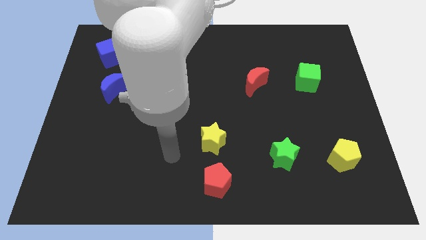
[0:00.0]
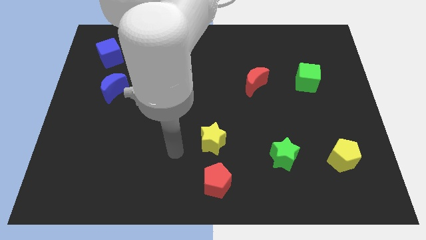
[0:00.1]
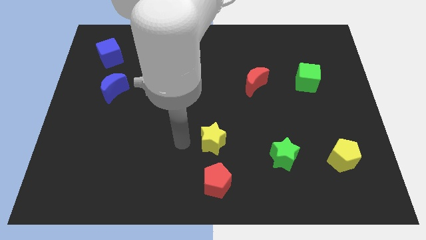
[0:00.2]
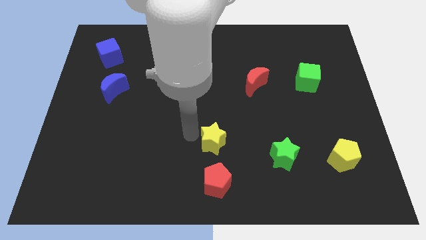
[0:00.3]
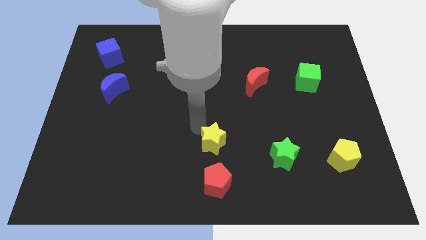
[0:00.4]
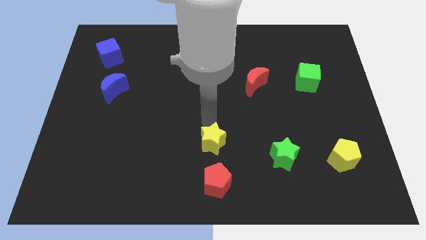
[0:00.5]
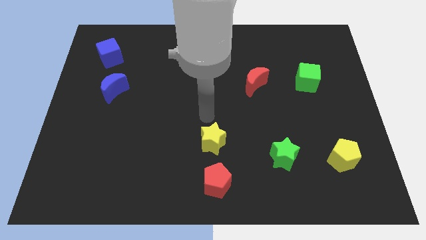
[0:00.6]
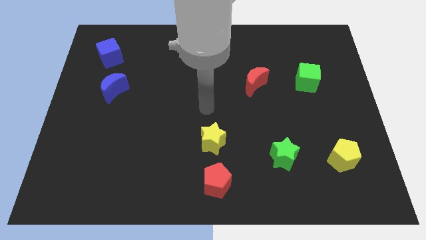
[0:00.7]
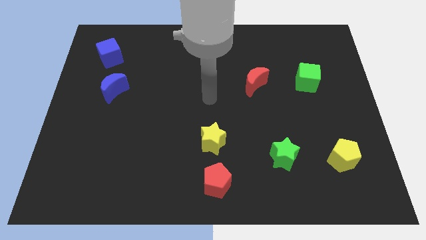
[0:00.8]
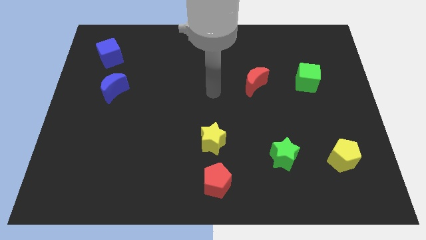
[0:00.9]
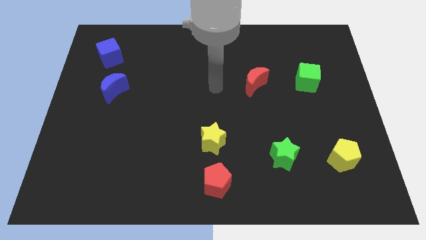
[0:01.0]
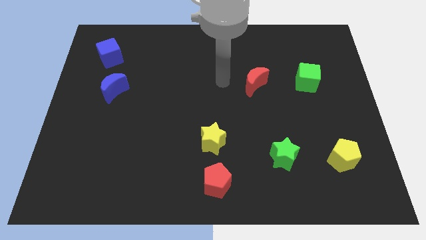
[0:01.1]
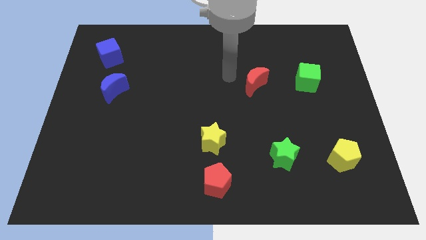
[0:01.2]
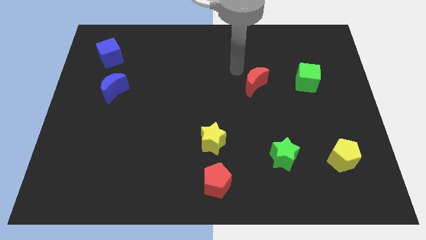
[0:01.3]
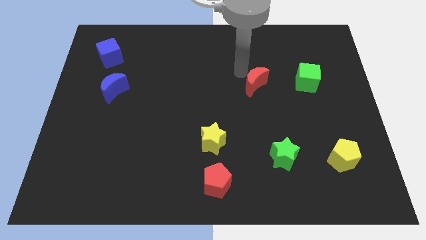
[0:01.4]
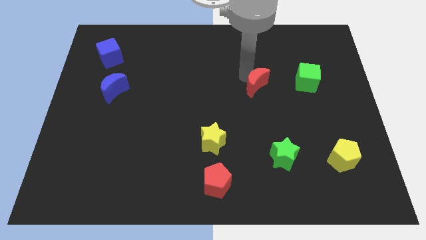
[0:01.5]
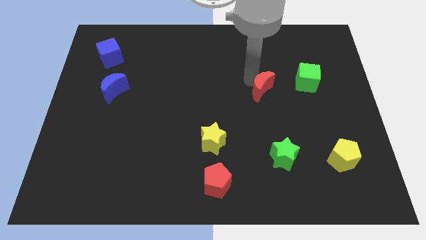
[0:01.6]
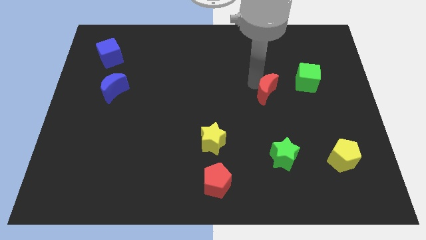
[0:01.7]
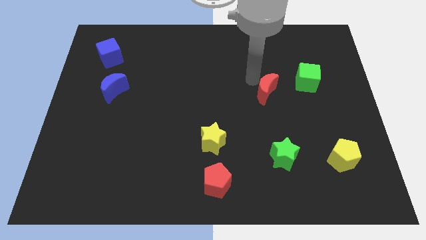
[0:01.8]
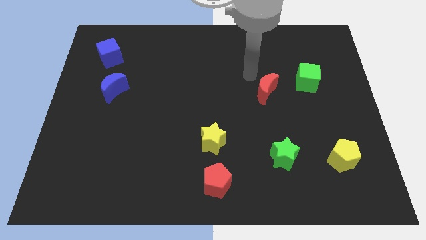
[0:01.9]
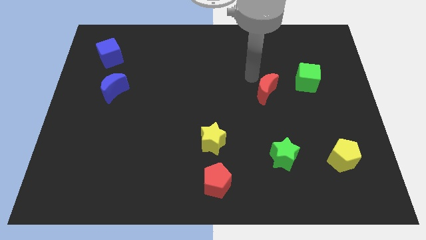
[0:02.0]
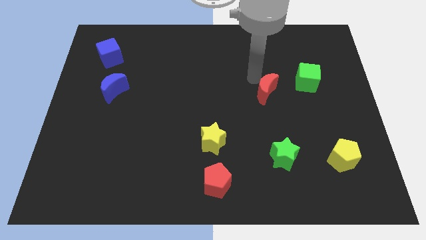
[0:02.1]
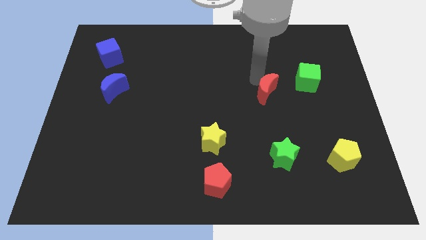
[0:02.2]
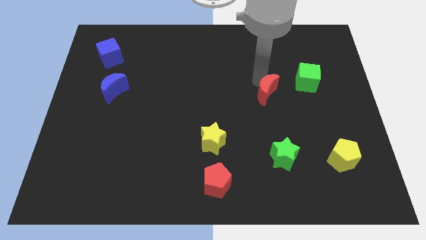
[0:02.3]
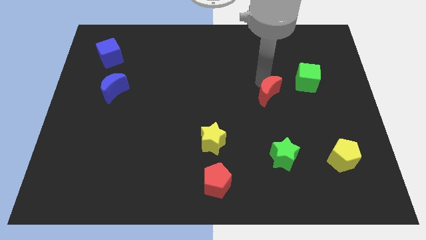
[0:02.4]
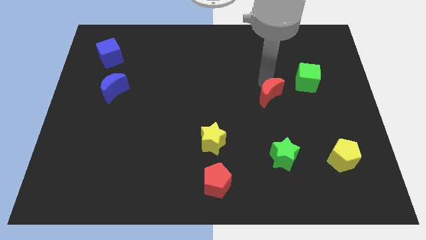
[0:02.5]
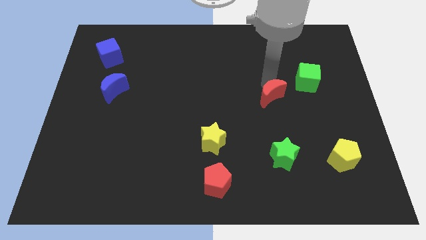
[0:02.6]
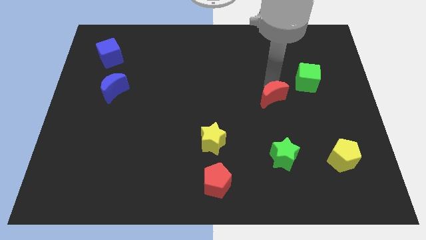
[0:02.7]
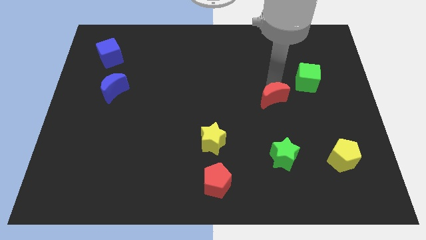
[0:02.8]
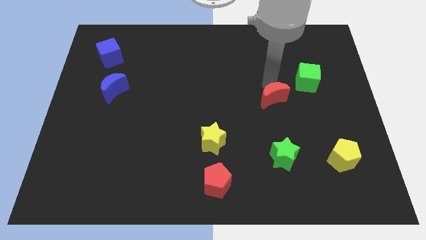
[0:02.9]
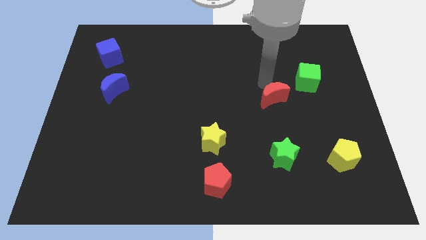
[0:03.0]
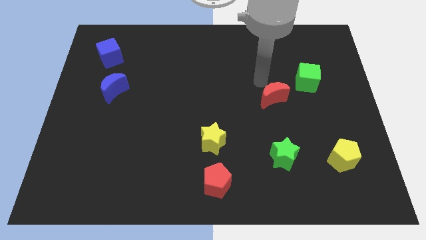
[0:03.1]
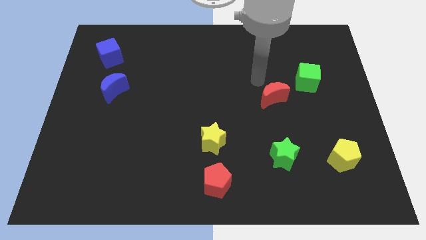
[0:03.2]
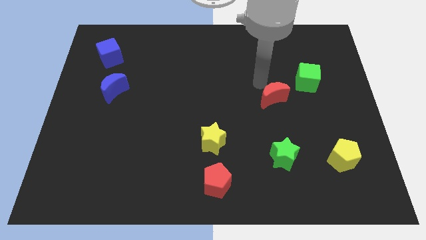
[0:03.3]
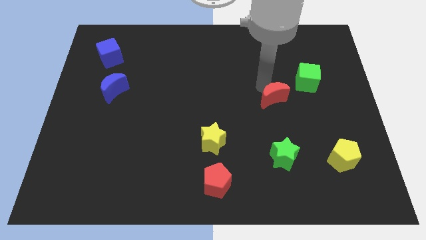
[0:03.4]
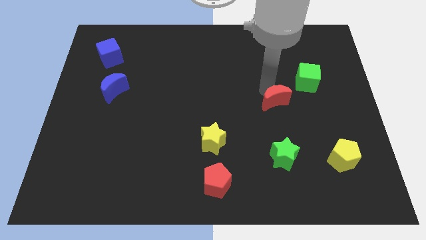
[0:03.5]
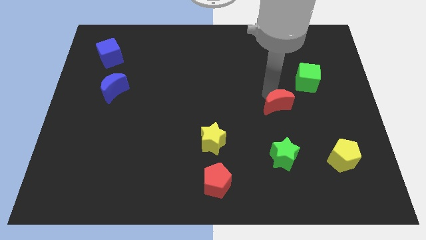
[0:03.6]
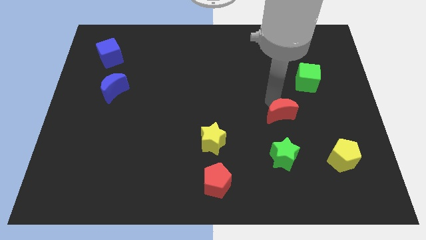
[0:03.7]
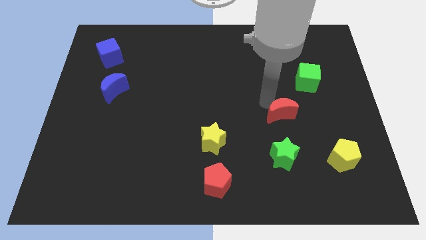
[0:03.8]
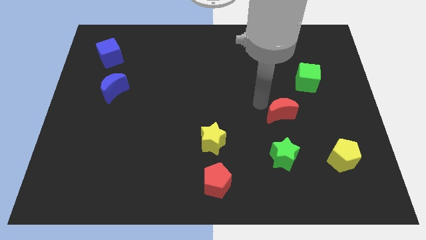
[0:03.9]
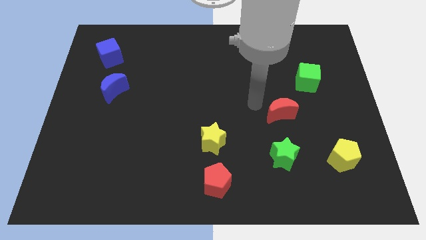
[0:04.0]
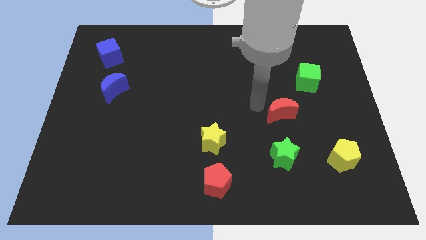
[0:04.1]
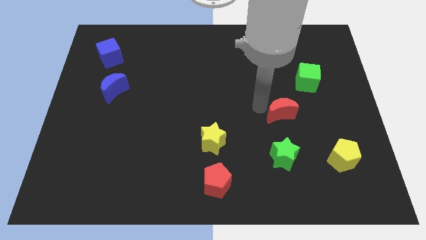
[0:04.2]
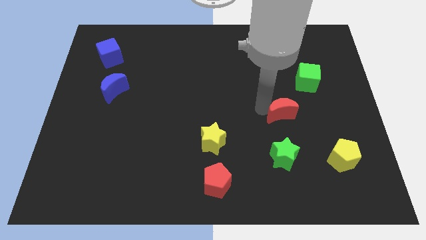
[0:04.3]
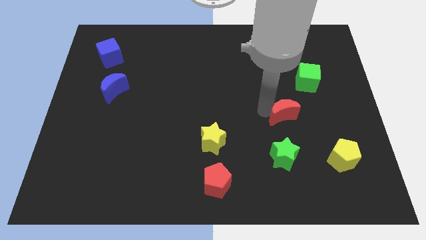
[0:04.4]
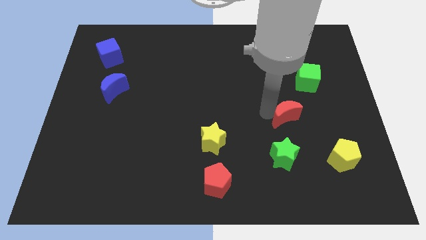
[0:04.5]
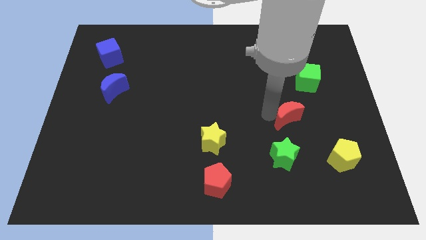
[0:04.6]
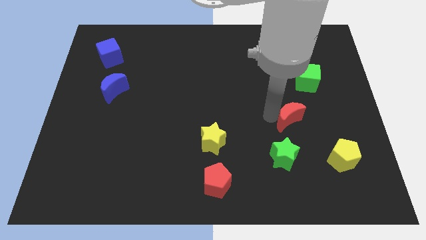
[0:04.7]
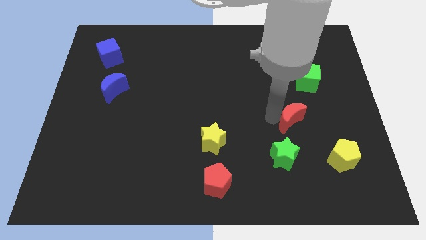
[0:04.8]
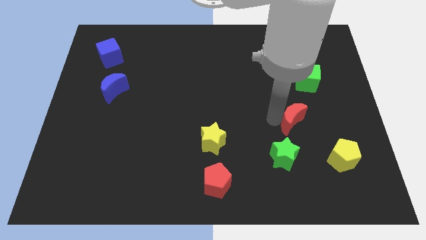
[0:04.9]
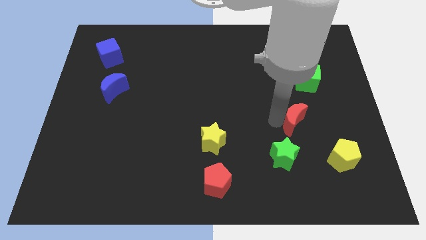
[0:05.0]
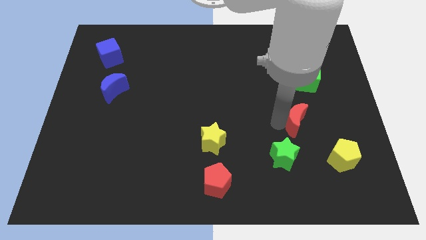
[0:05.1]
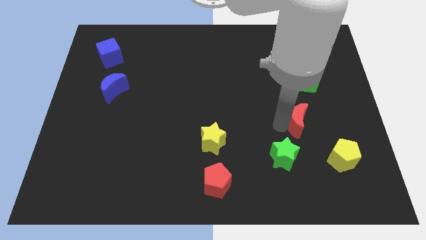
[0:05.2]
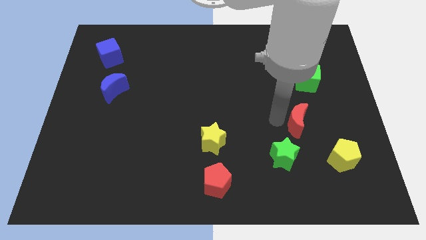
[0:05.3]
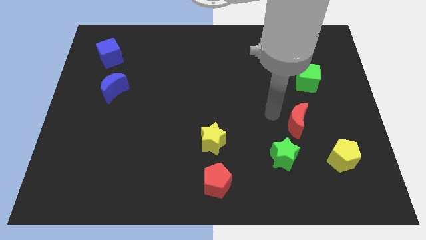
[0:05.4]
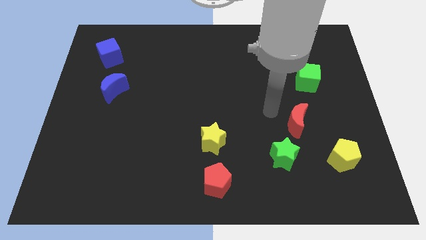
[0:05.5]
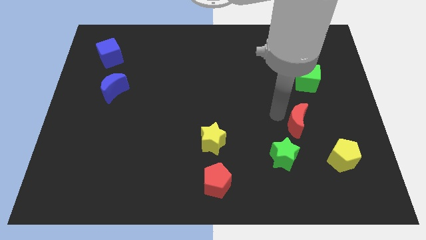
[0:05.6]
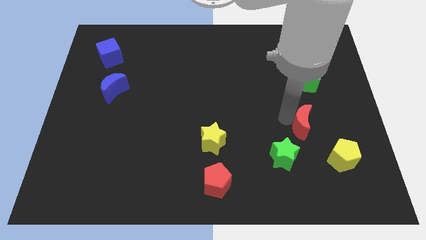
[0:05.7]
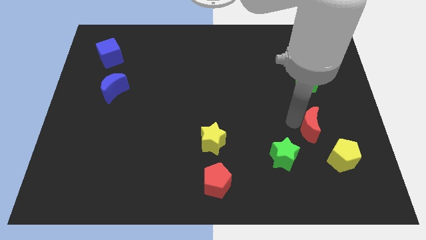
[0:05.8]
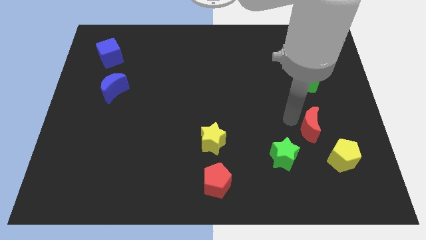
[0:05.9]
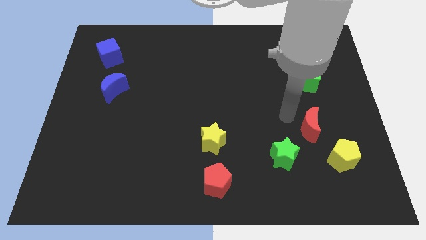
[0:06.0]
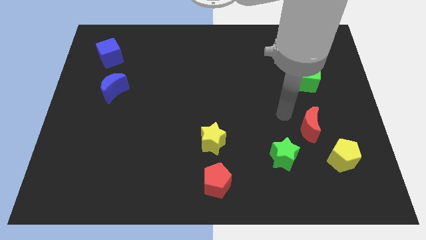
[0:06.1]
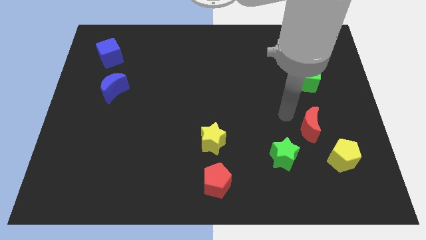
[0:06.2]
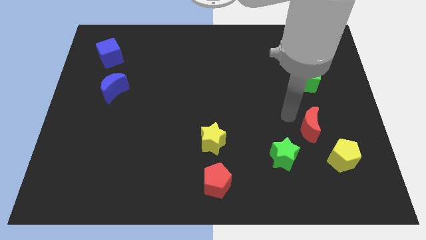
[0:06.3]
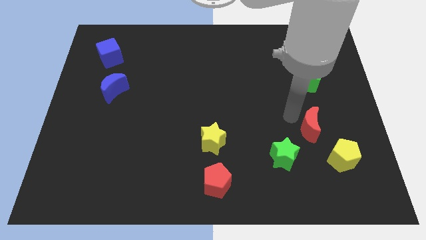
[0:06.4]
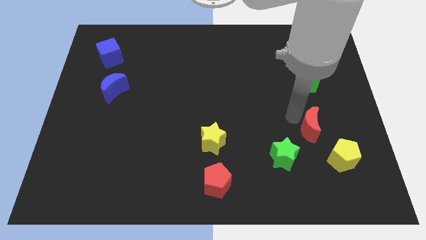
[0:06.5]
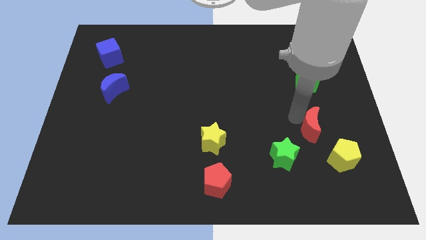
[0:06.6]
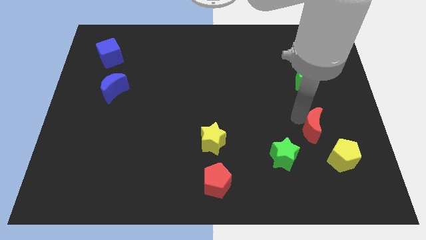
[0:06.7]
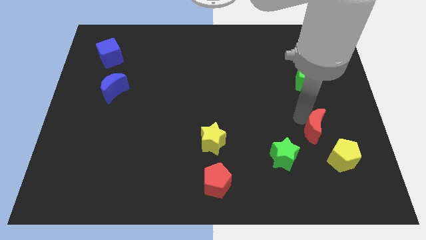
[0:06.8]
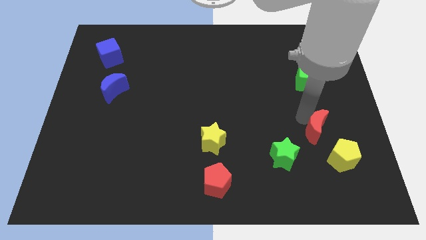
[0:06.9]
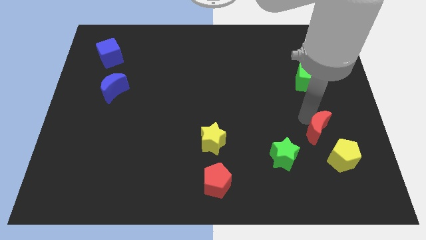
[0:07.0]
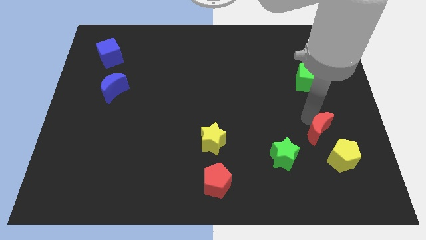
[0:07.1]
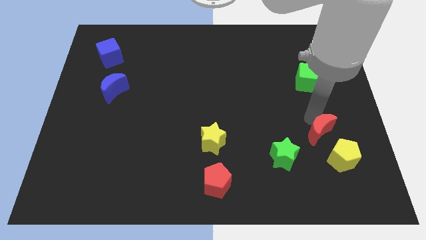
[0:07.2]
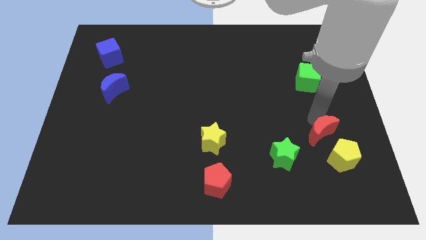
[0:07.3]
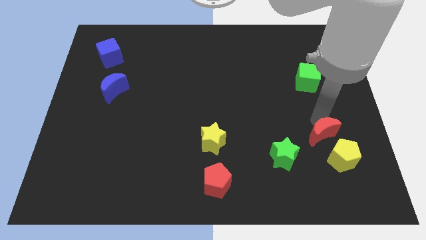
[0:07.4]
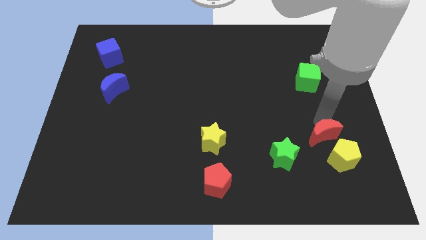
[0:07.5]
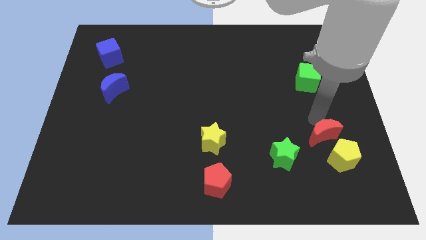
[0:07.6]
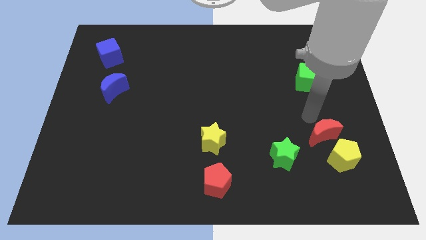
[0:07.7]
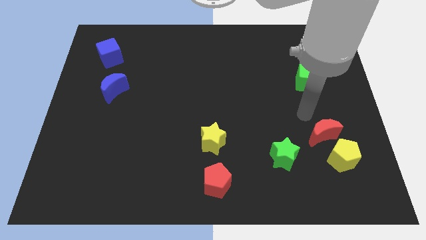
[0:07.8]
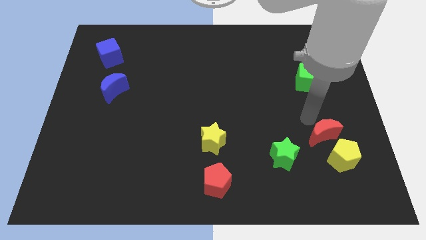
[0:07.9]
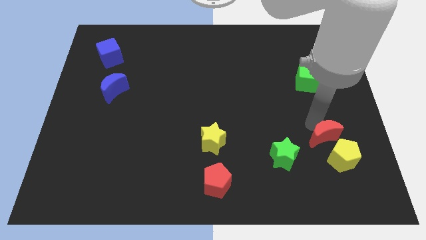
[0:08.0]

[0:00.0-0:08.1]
move the red moon close to the yellow pentagon
